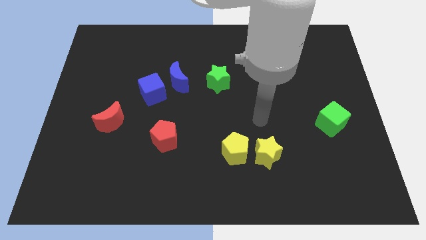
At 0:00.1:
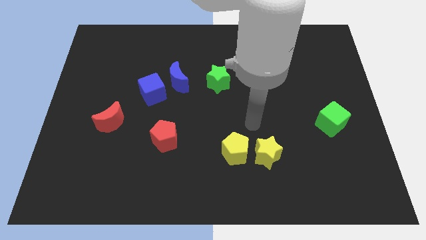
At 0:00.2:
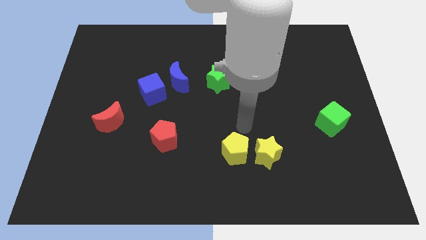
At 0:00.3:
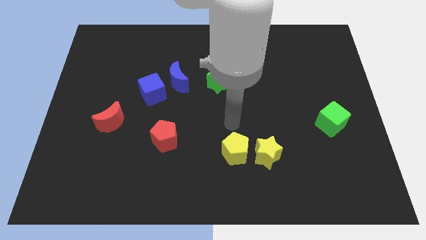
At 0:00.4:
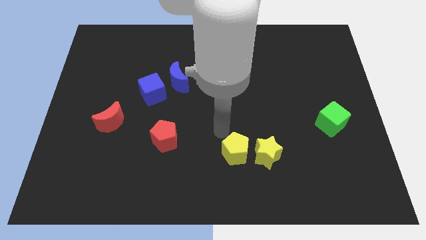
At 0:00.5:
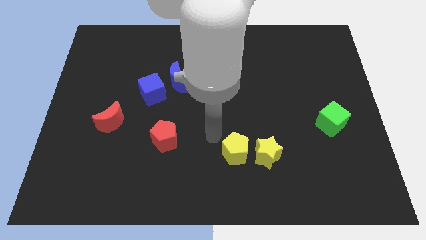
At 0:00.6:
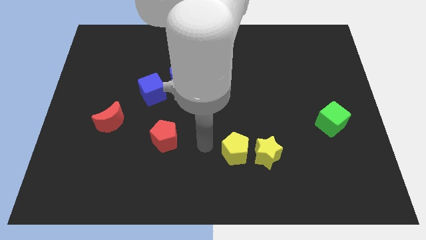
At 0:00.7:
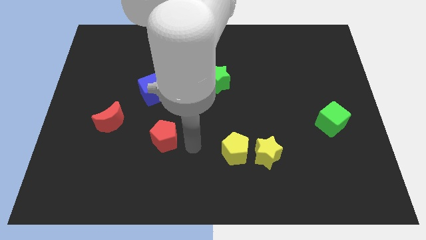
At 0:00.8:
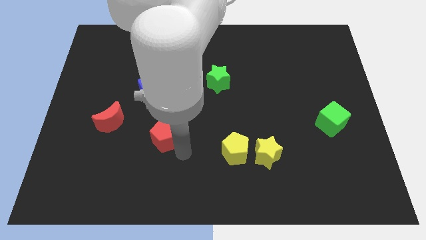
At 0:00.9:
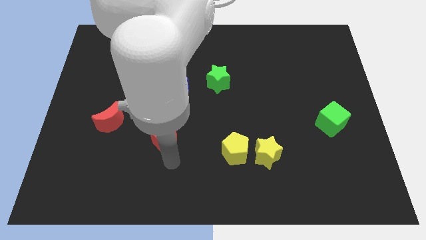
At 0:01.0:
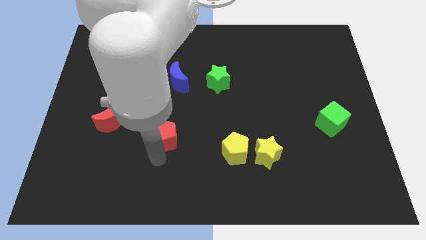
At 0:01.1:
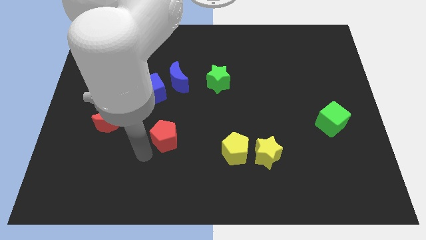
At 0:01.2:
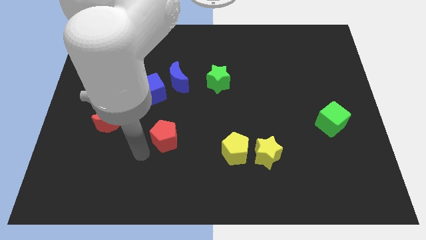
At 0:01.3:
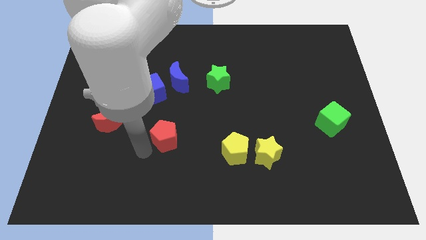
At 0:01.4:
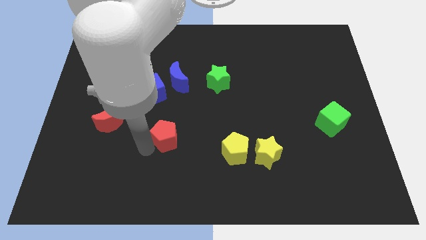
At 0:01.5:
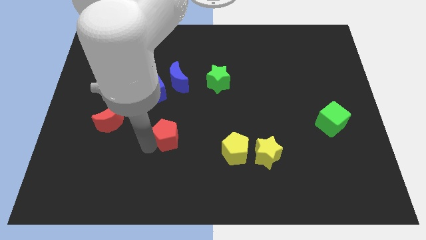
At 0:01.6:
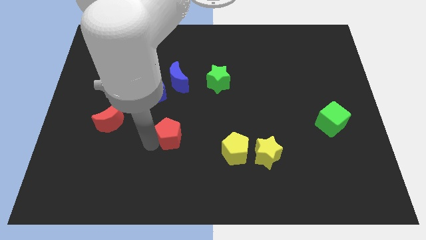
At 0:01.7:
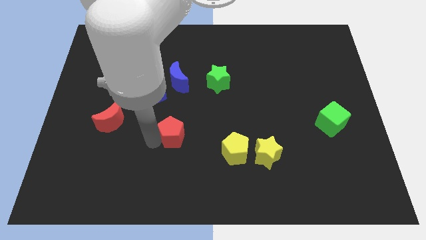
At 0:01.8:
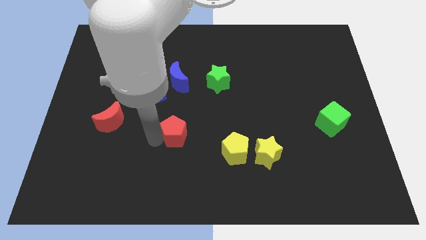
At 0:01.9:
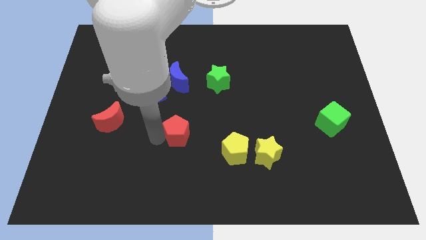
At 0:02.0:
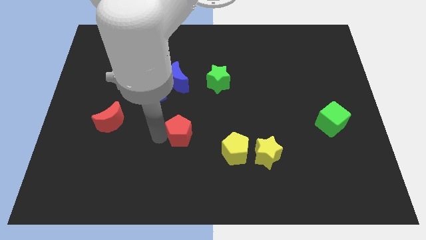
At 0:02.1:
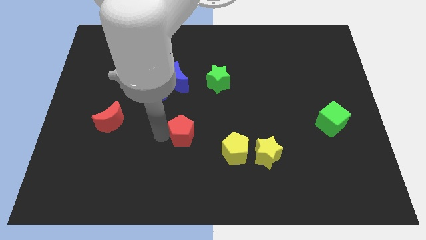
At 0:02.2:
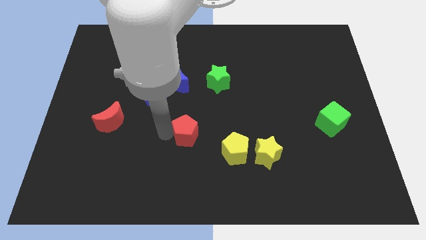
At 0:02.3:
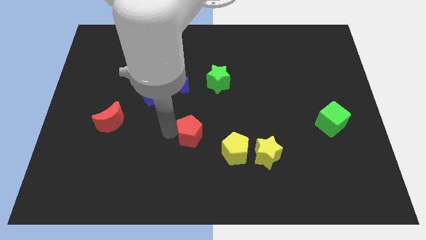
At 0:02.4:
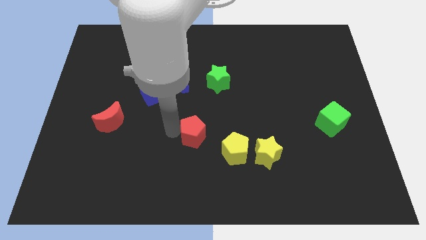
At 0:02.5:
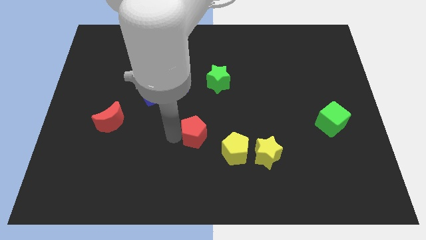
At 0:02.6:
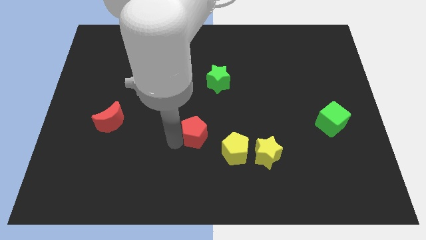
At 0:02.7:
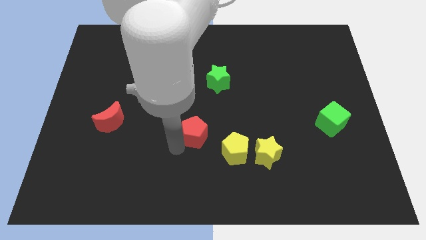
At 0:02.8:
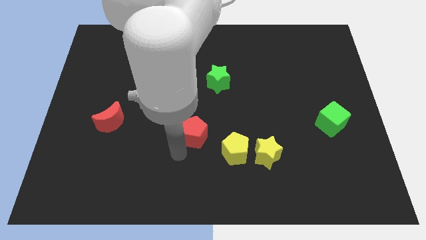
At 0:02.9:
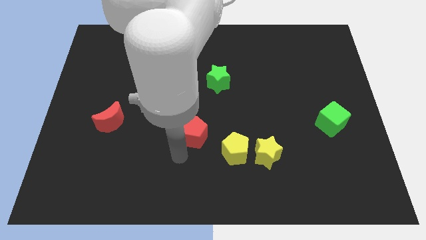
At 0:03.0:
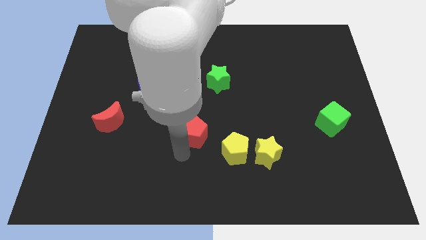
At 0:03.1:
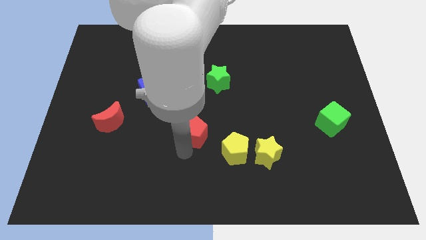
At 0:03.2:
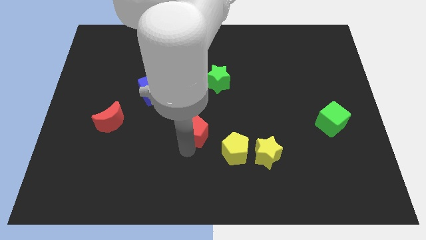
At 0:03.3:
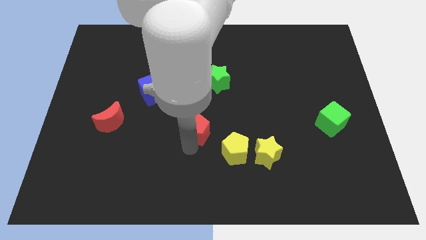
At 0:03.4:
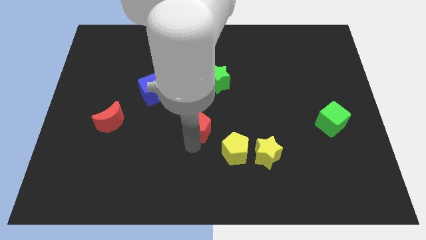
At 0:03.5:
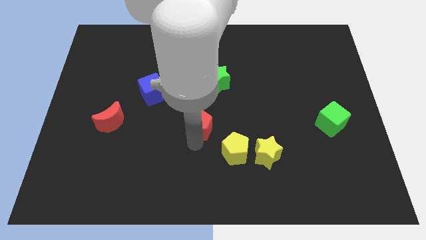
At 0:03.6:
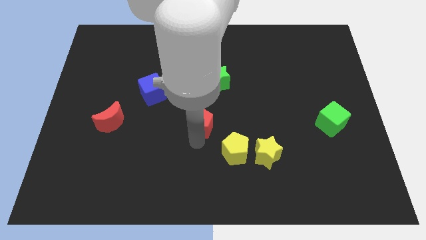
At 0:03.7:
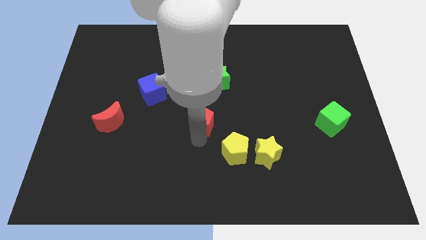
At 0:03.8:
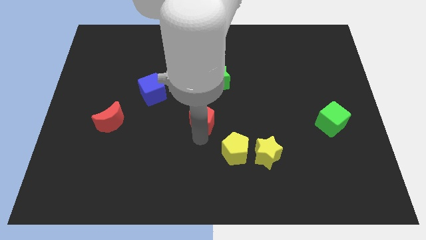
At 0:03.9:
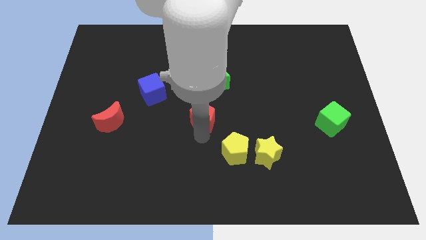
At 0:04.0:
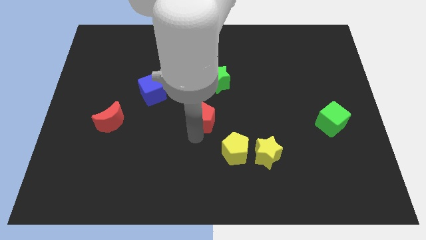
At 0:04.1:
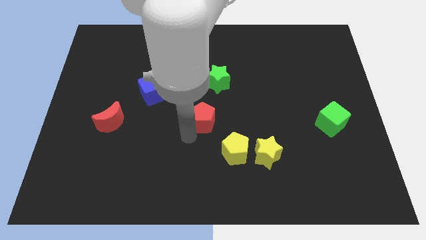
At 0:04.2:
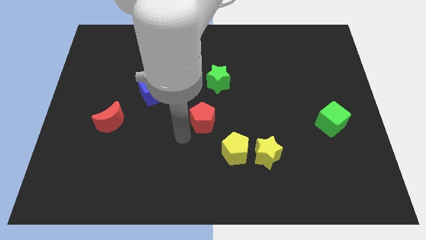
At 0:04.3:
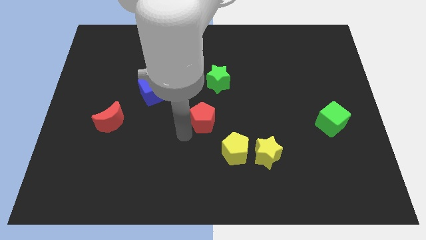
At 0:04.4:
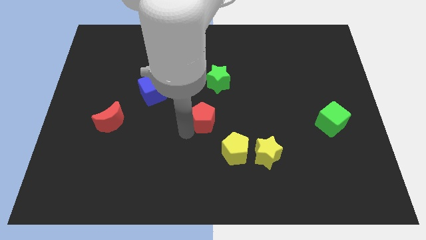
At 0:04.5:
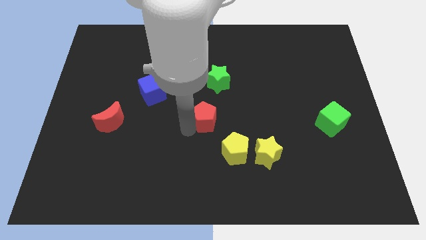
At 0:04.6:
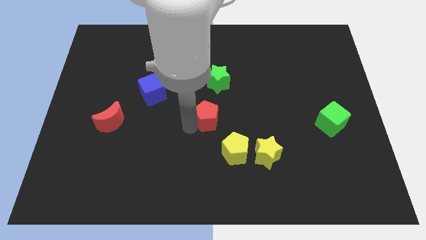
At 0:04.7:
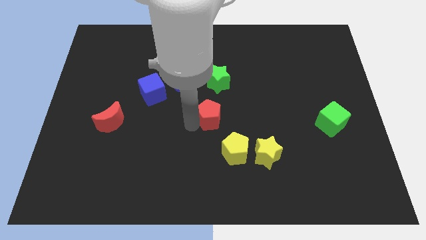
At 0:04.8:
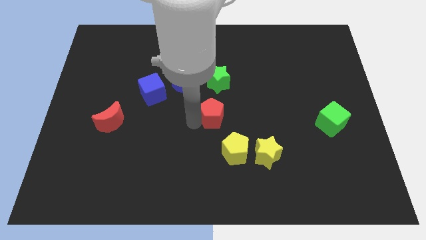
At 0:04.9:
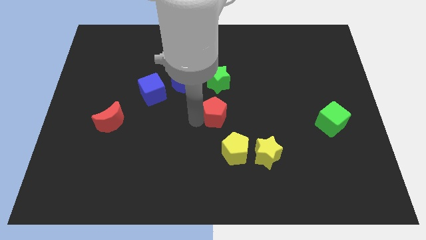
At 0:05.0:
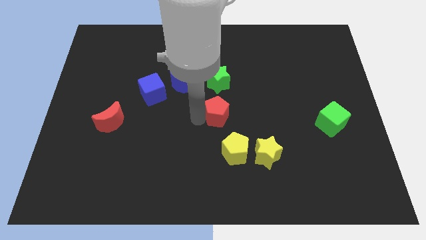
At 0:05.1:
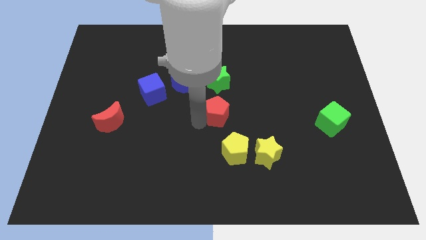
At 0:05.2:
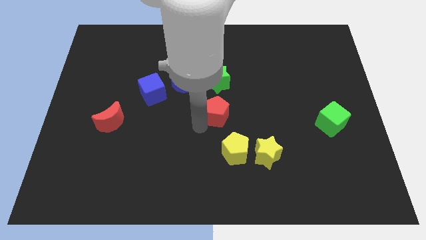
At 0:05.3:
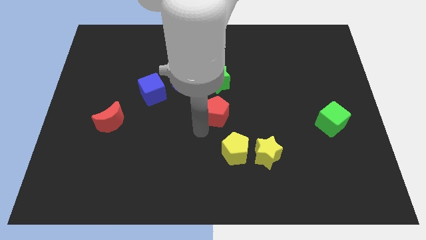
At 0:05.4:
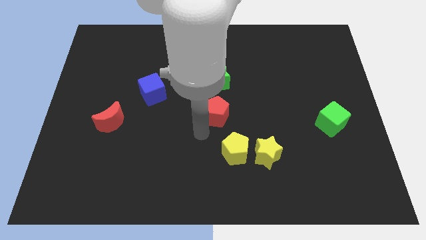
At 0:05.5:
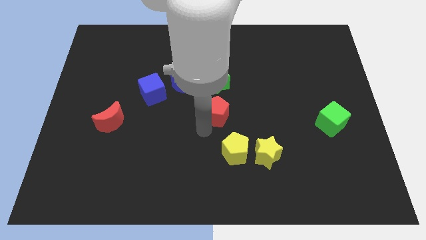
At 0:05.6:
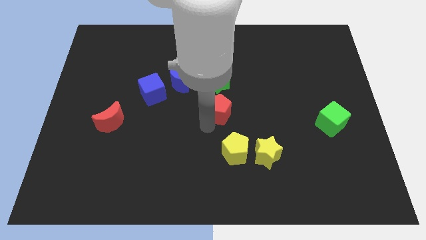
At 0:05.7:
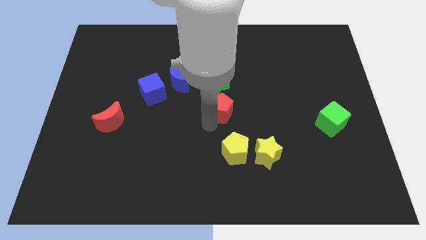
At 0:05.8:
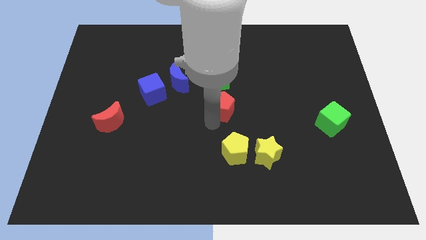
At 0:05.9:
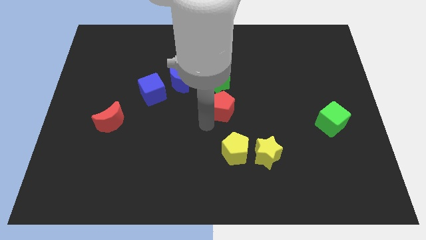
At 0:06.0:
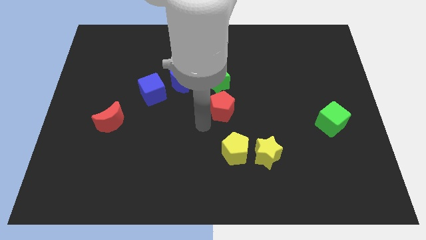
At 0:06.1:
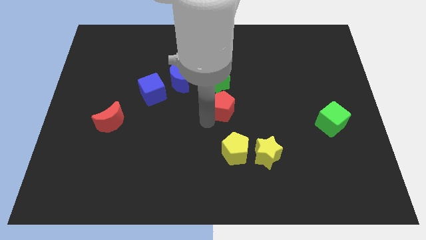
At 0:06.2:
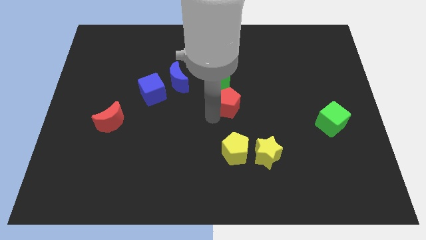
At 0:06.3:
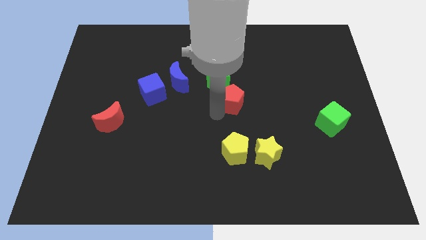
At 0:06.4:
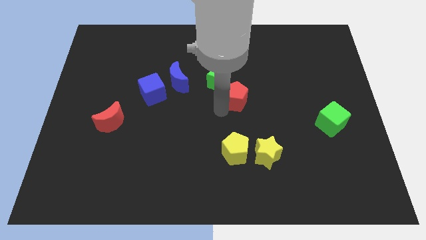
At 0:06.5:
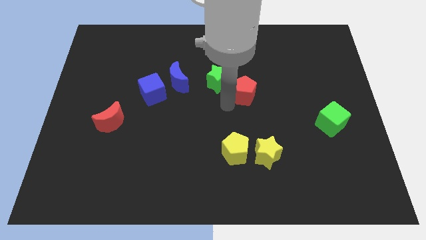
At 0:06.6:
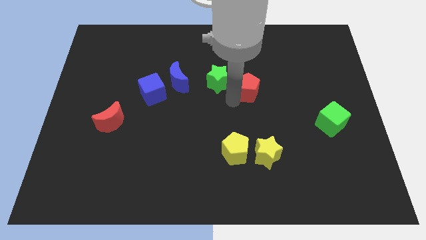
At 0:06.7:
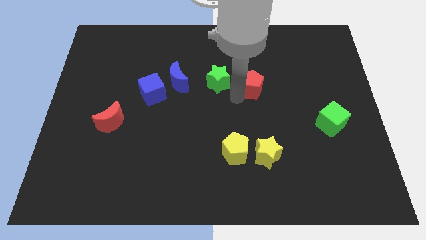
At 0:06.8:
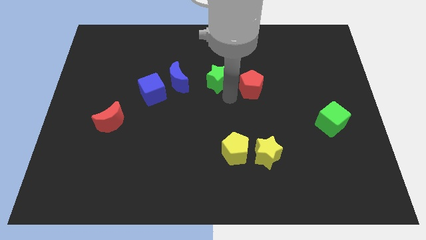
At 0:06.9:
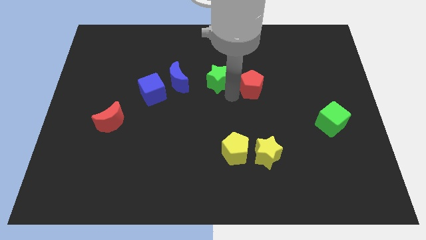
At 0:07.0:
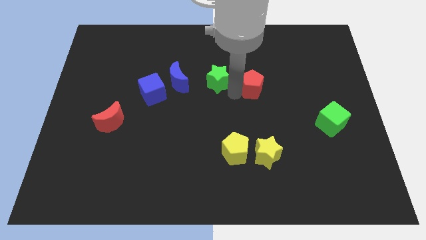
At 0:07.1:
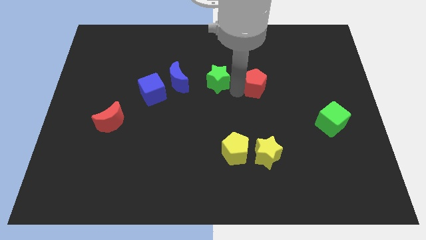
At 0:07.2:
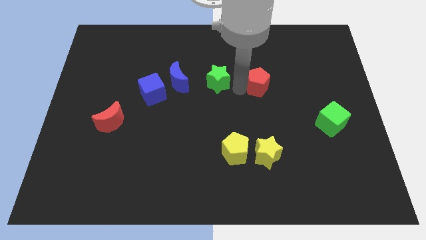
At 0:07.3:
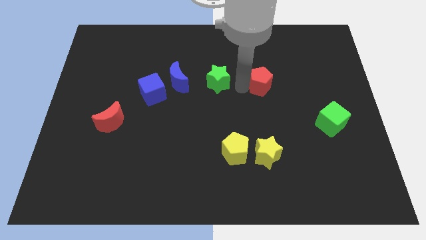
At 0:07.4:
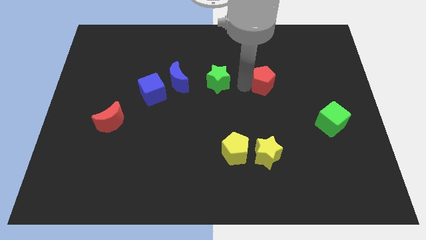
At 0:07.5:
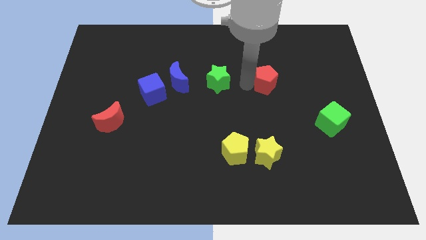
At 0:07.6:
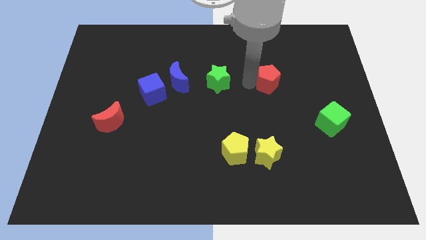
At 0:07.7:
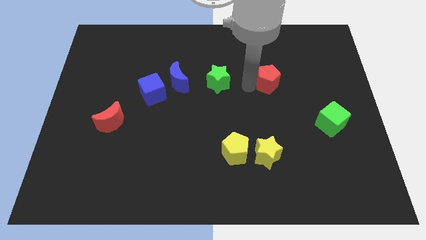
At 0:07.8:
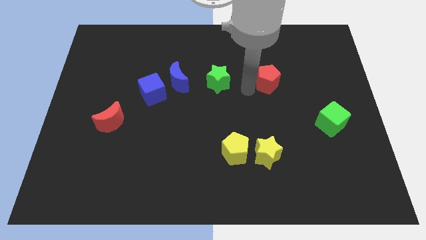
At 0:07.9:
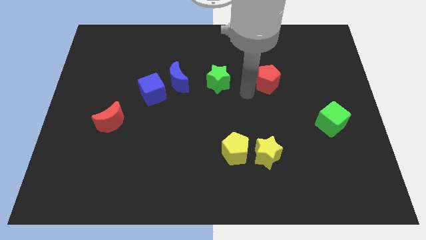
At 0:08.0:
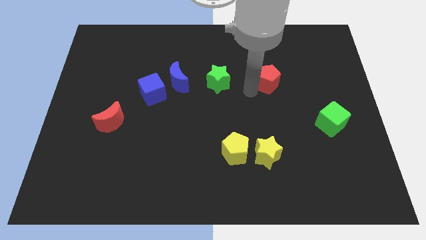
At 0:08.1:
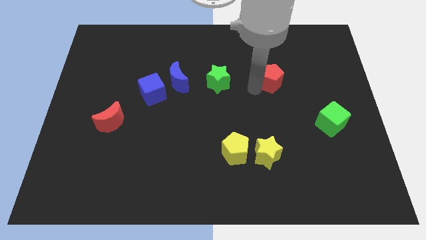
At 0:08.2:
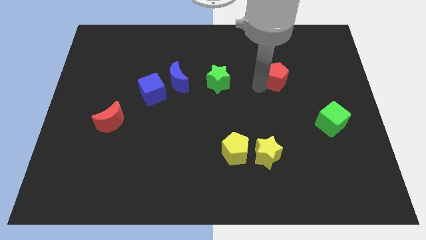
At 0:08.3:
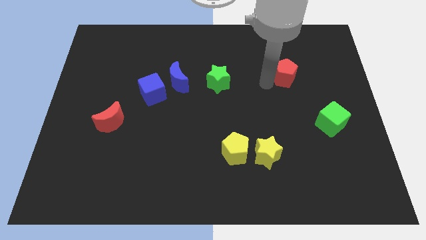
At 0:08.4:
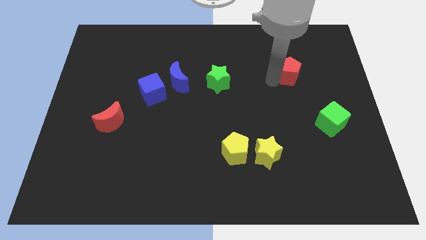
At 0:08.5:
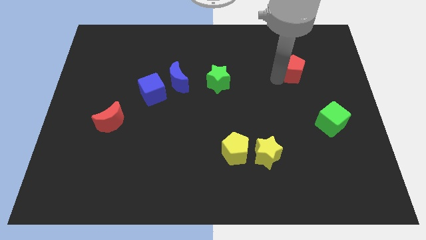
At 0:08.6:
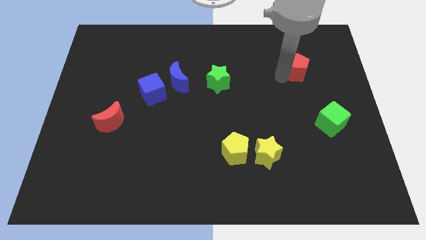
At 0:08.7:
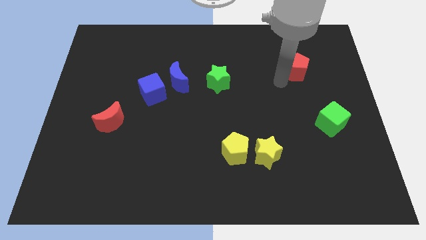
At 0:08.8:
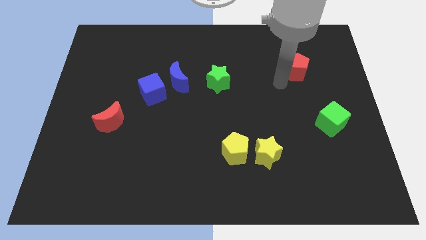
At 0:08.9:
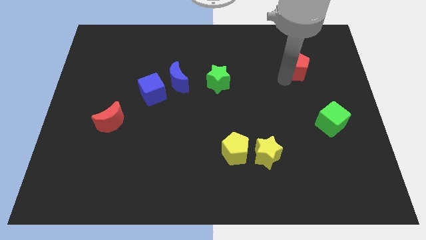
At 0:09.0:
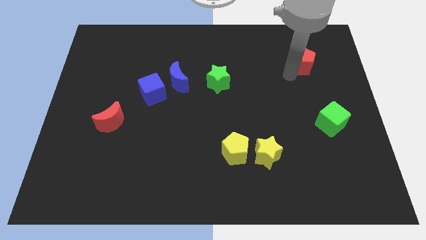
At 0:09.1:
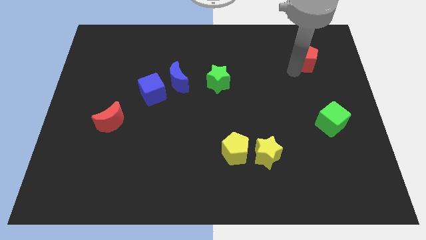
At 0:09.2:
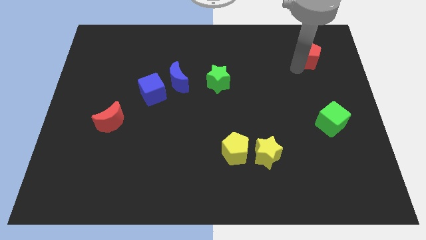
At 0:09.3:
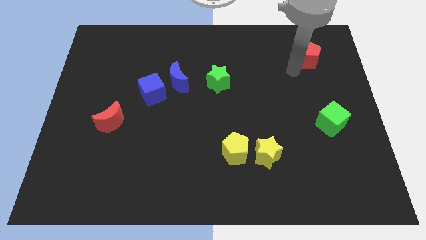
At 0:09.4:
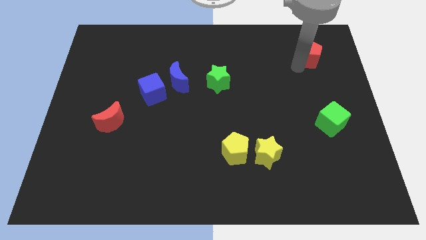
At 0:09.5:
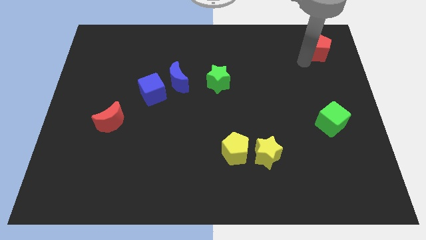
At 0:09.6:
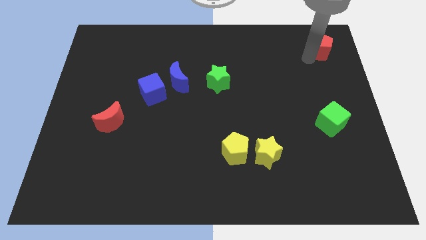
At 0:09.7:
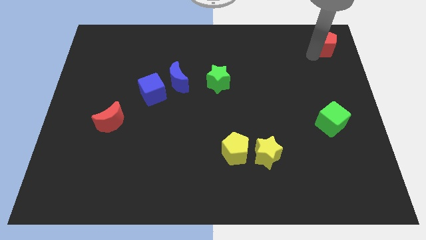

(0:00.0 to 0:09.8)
slide the red pentagon to the top right of the board
